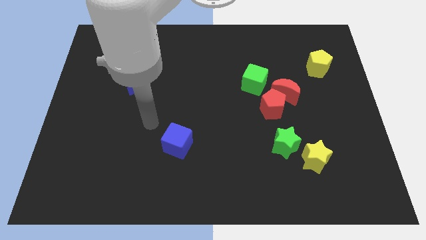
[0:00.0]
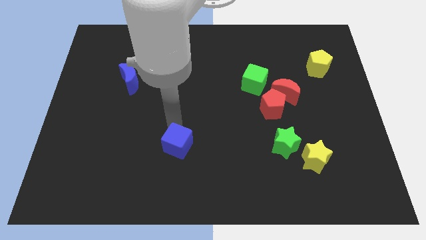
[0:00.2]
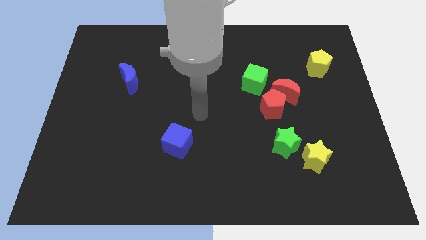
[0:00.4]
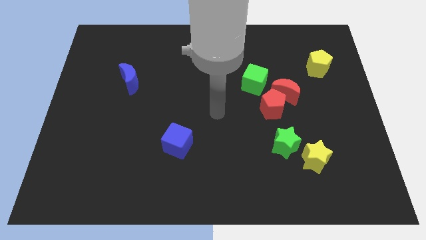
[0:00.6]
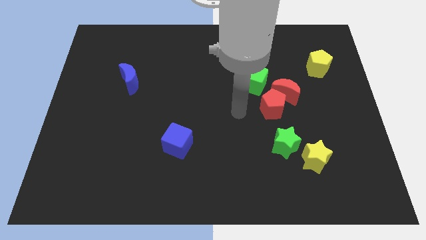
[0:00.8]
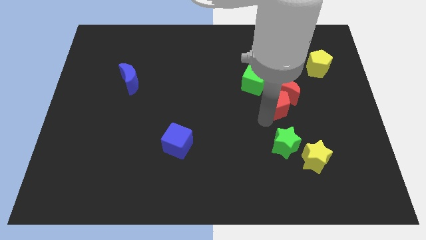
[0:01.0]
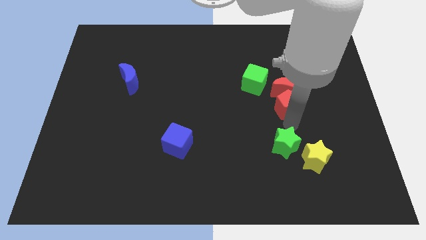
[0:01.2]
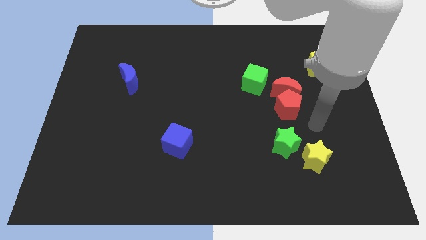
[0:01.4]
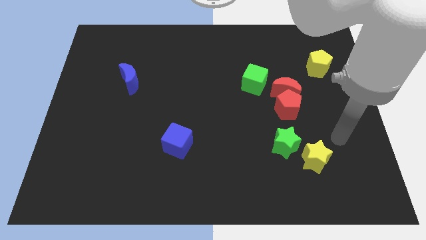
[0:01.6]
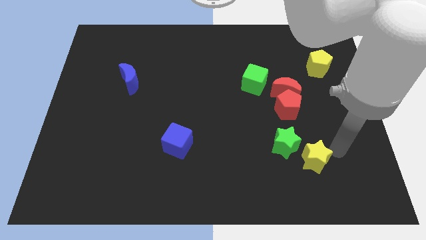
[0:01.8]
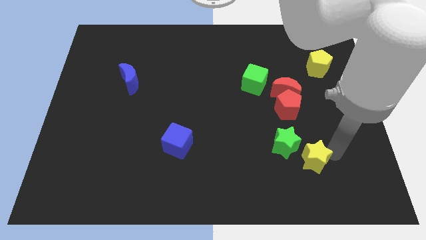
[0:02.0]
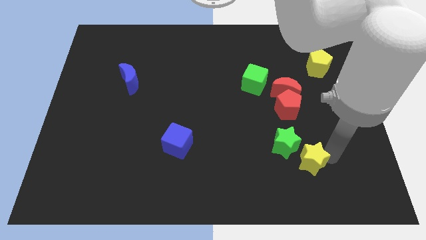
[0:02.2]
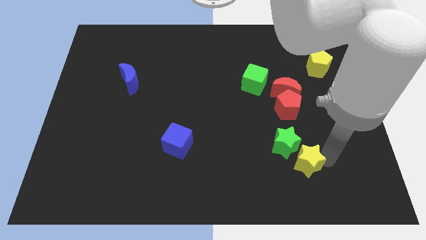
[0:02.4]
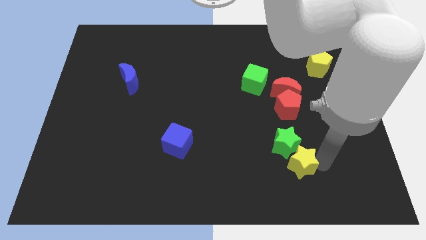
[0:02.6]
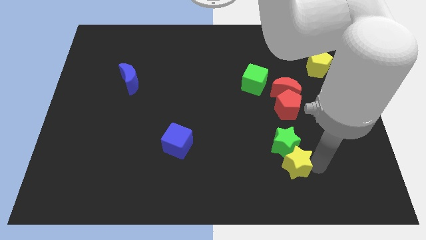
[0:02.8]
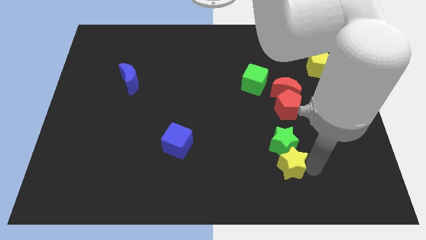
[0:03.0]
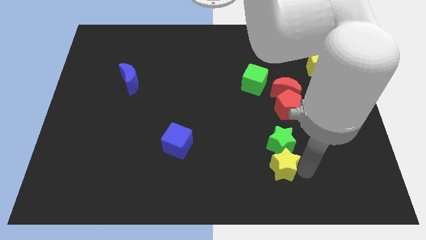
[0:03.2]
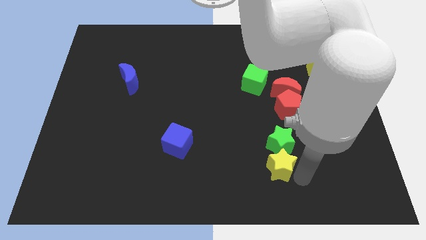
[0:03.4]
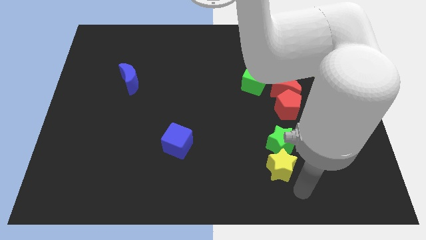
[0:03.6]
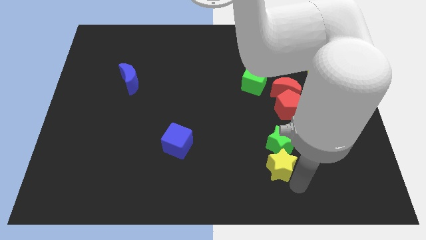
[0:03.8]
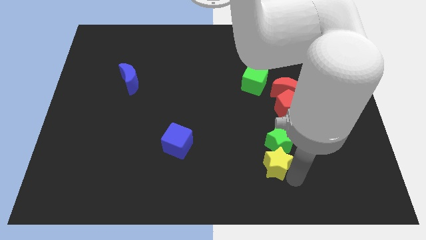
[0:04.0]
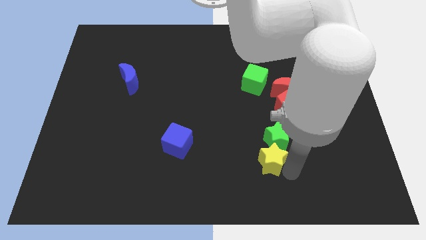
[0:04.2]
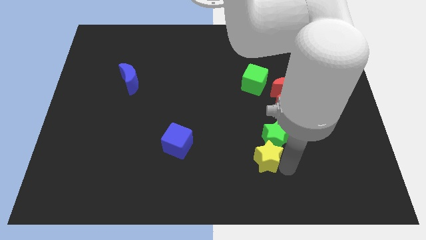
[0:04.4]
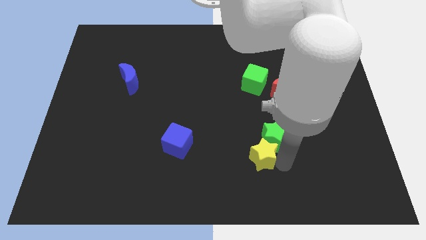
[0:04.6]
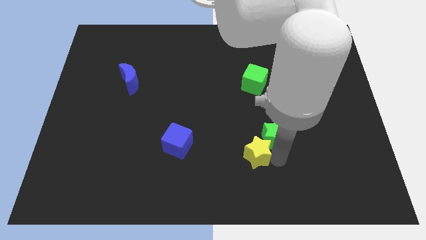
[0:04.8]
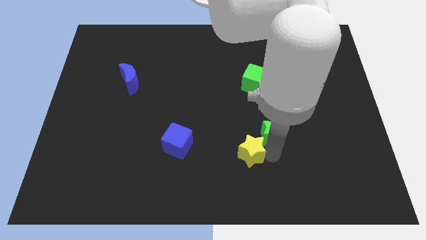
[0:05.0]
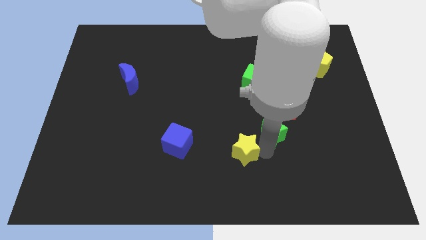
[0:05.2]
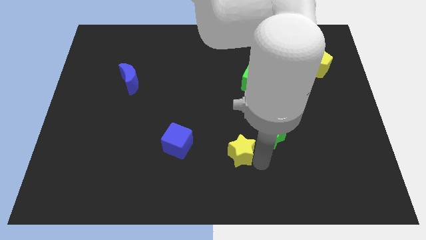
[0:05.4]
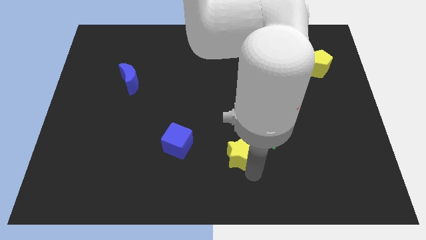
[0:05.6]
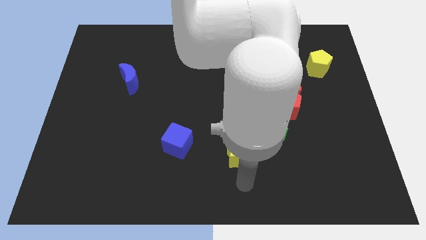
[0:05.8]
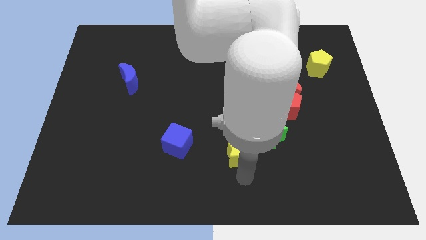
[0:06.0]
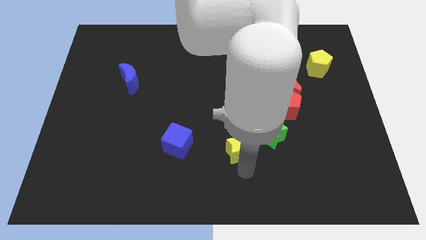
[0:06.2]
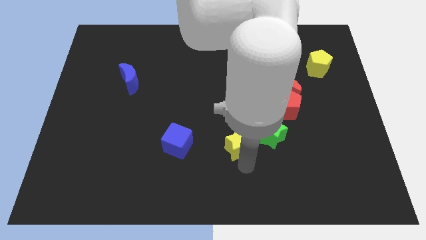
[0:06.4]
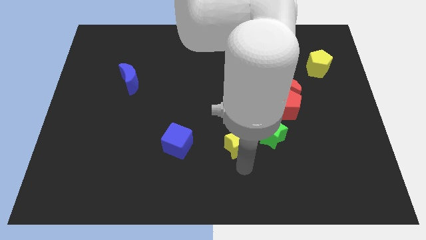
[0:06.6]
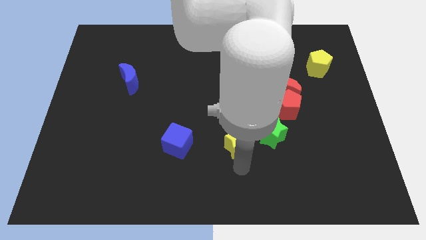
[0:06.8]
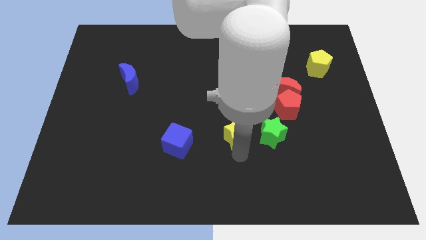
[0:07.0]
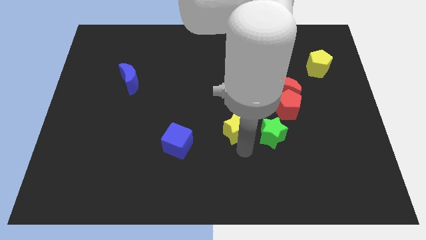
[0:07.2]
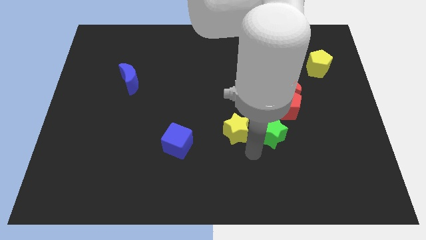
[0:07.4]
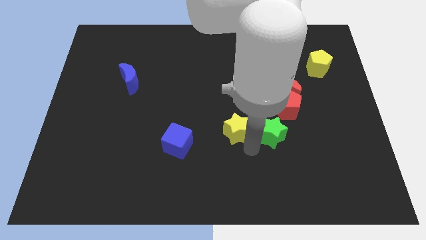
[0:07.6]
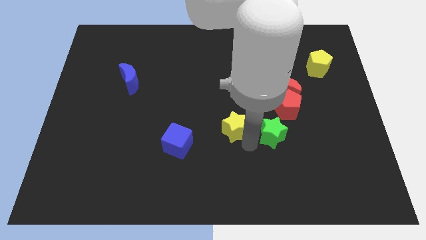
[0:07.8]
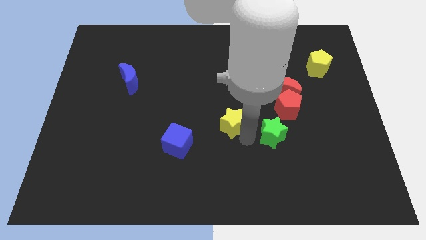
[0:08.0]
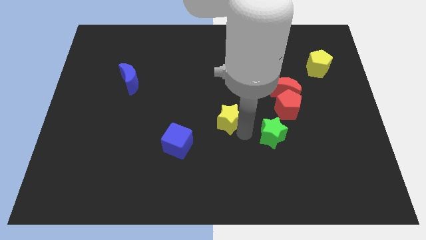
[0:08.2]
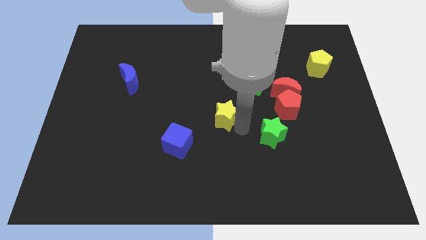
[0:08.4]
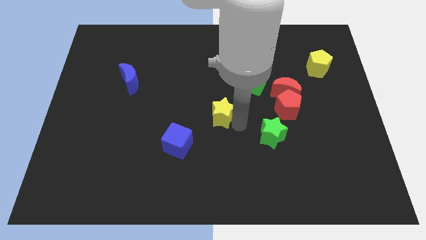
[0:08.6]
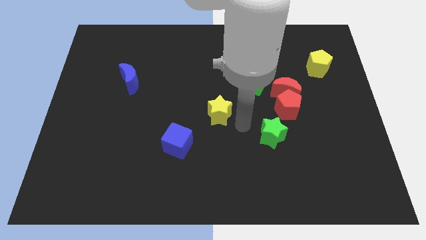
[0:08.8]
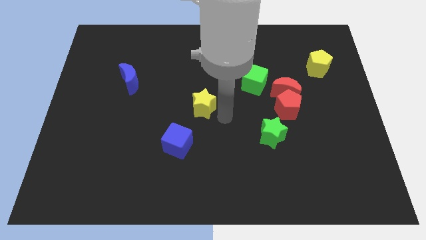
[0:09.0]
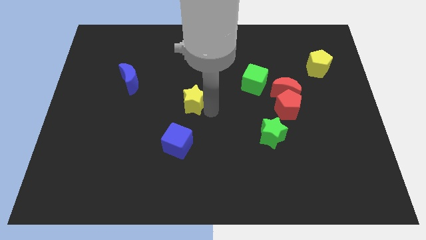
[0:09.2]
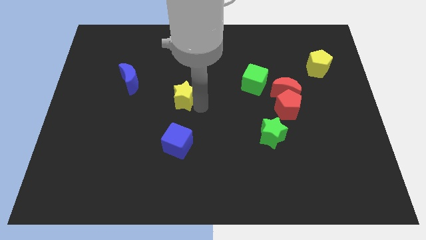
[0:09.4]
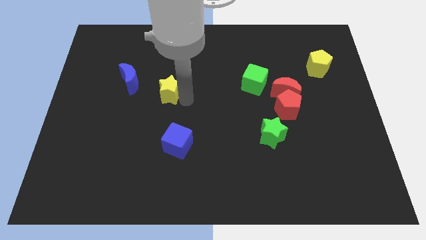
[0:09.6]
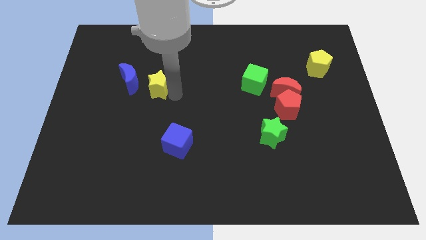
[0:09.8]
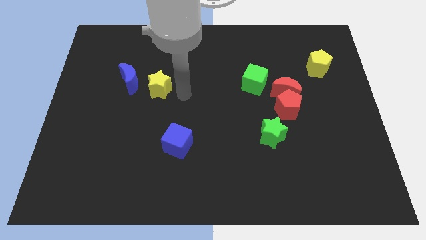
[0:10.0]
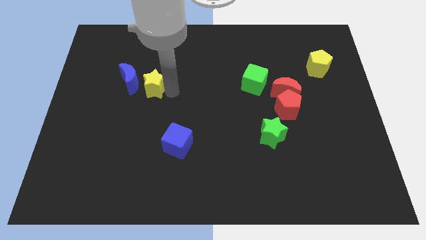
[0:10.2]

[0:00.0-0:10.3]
move the yellow star to the blue moon

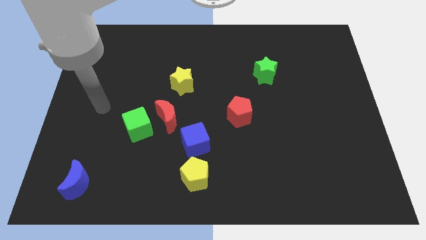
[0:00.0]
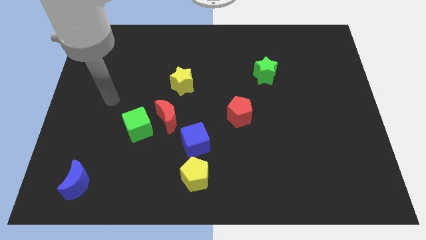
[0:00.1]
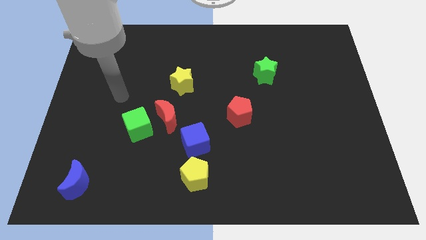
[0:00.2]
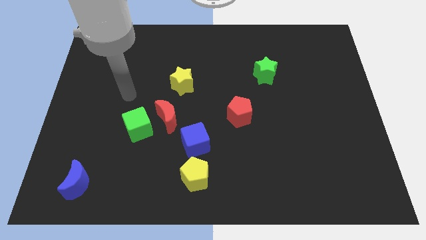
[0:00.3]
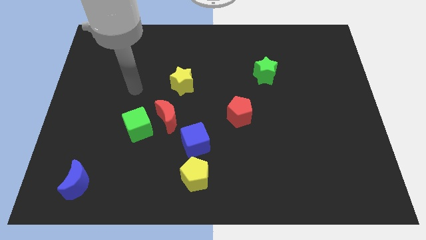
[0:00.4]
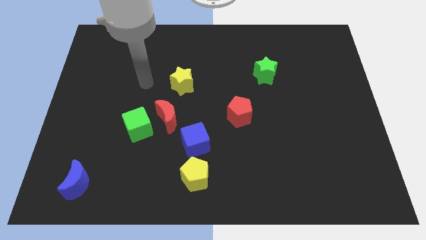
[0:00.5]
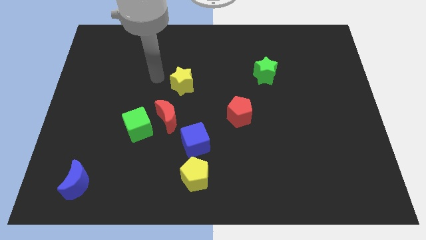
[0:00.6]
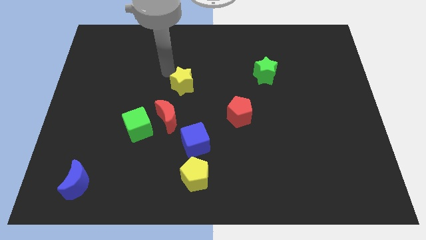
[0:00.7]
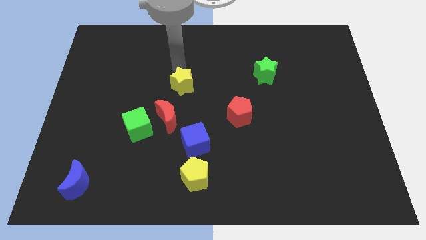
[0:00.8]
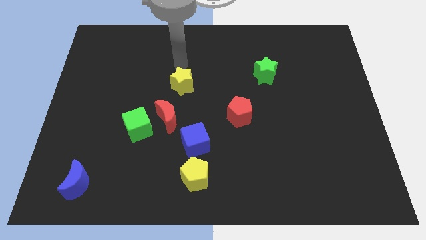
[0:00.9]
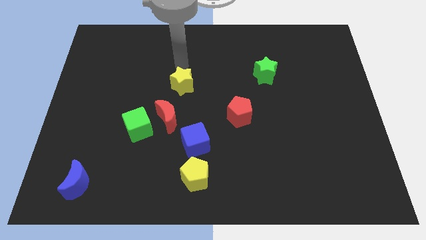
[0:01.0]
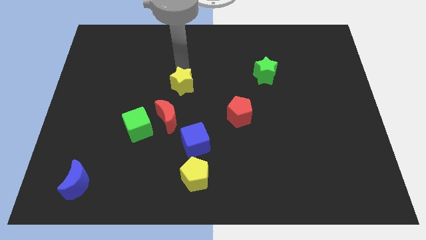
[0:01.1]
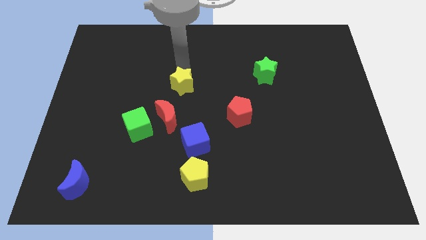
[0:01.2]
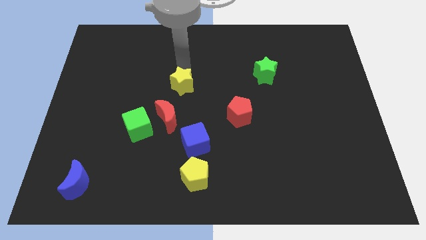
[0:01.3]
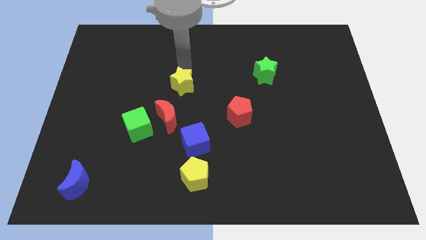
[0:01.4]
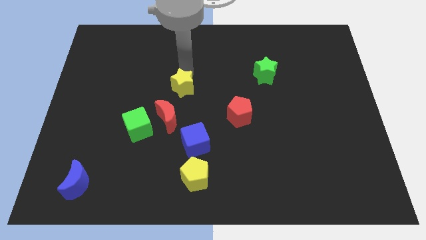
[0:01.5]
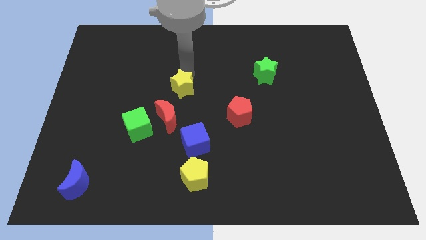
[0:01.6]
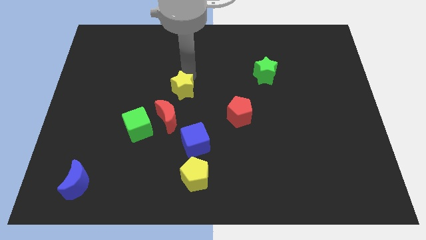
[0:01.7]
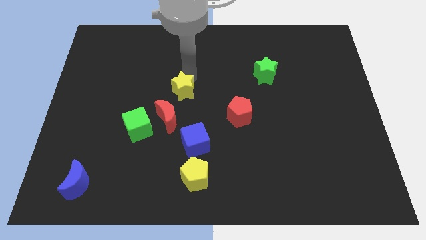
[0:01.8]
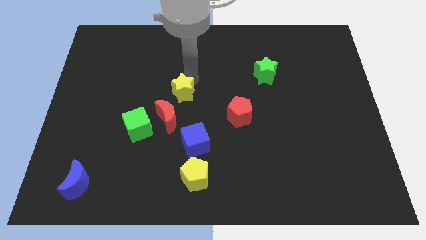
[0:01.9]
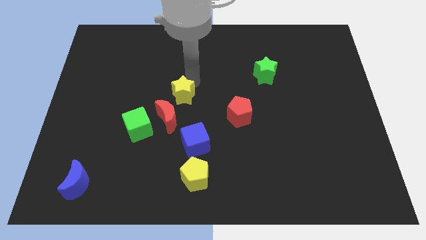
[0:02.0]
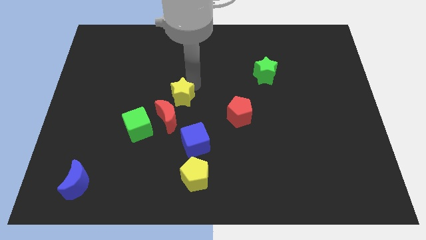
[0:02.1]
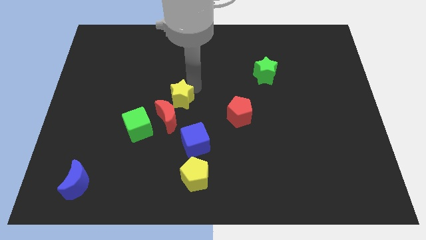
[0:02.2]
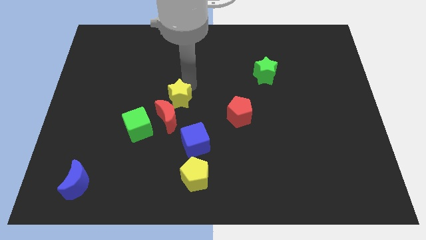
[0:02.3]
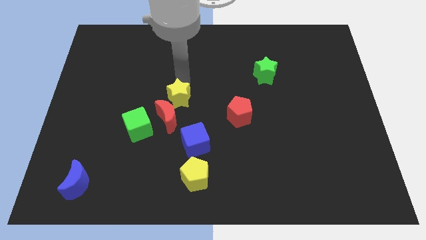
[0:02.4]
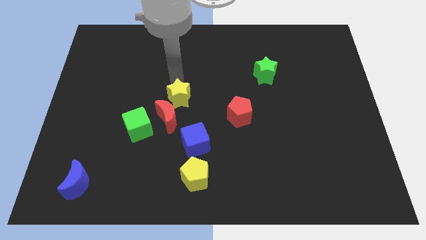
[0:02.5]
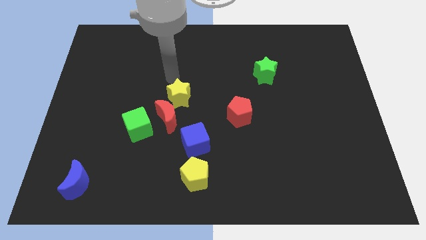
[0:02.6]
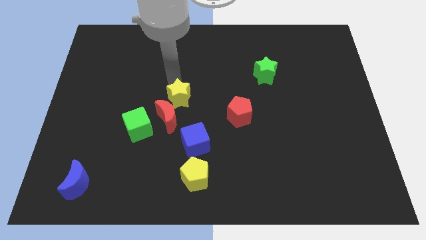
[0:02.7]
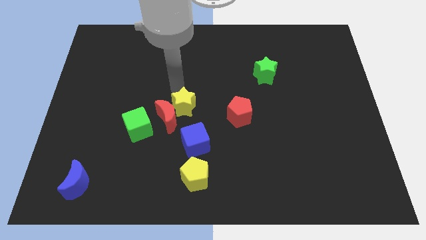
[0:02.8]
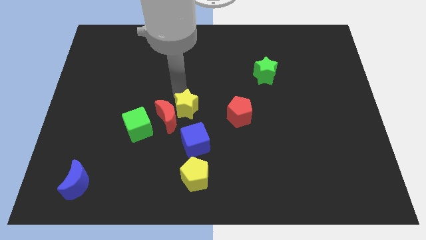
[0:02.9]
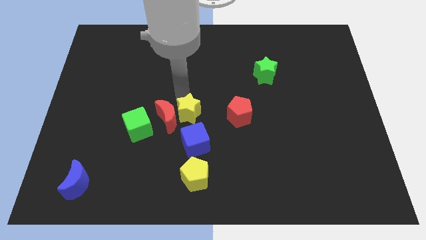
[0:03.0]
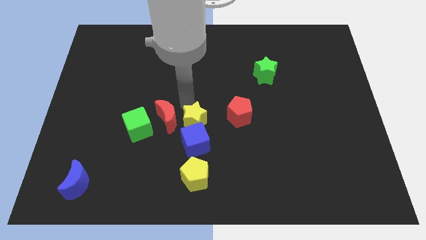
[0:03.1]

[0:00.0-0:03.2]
push the yellow star close to the blue cube
